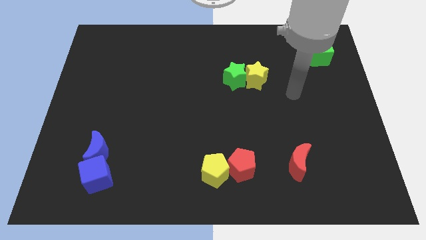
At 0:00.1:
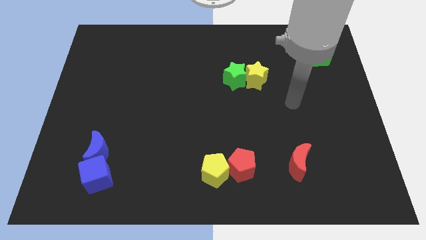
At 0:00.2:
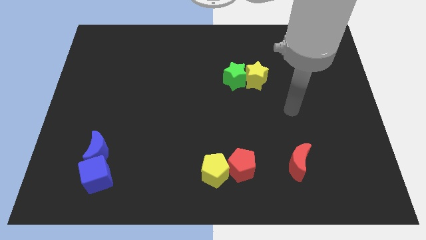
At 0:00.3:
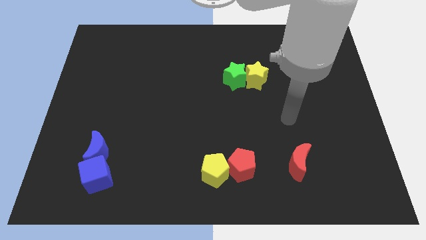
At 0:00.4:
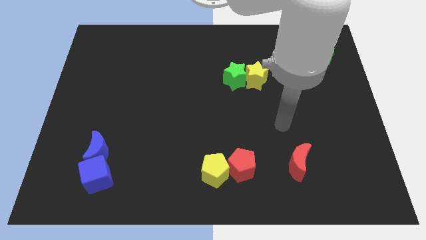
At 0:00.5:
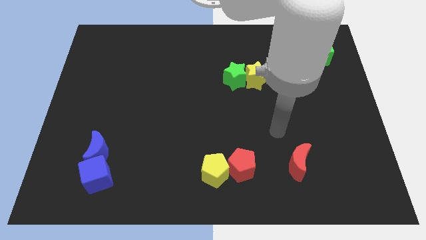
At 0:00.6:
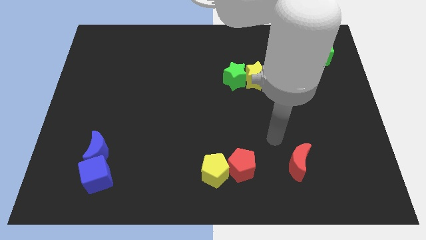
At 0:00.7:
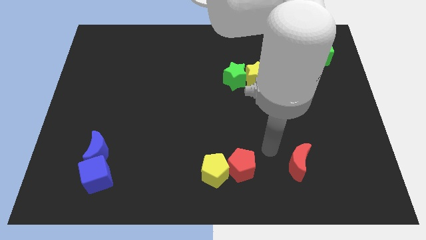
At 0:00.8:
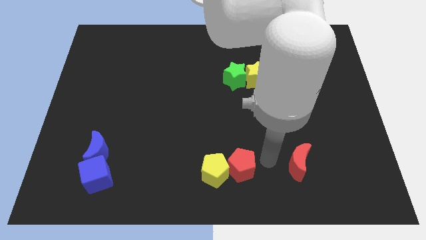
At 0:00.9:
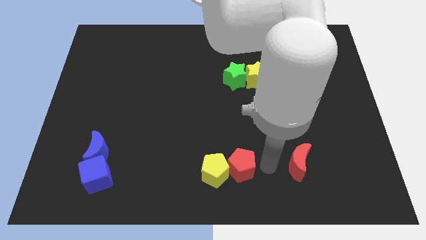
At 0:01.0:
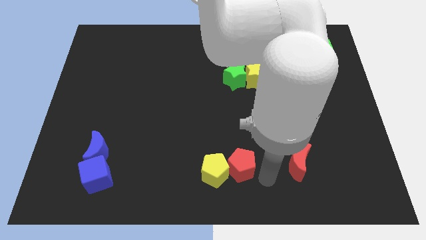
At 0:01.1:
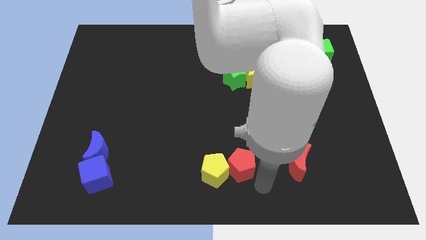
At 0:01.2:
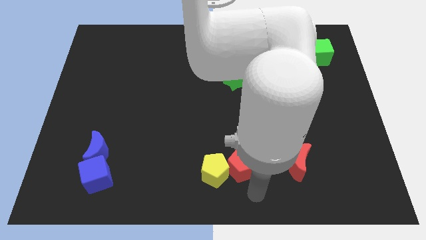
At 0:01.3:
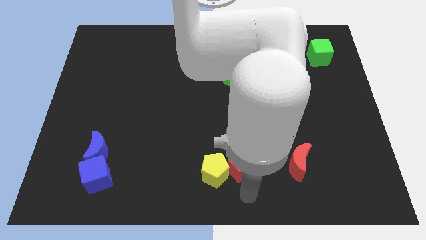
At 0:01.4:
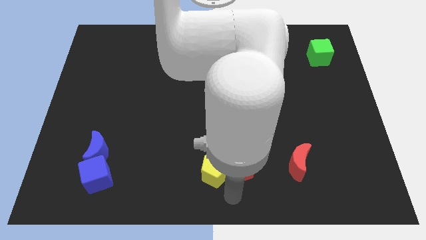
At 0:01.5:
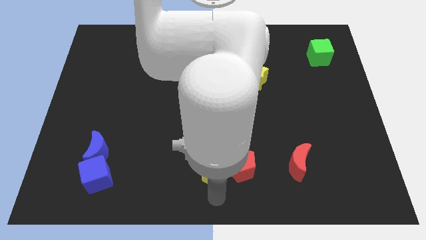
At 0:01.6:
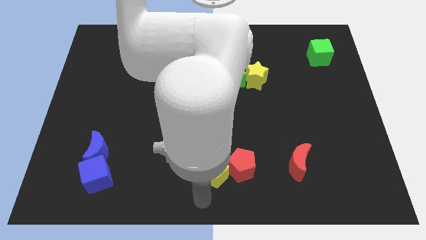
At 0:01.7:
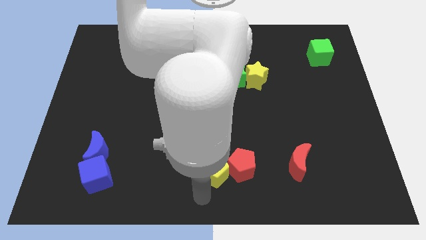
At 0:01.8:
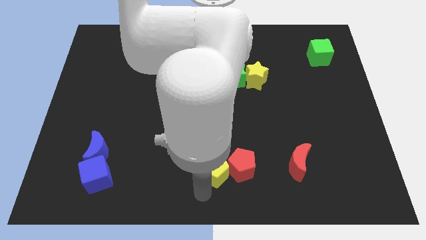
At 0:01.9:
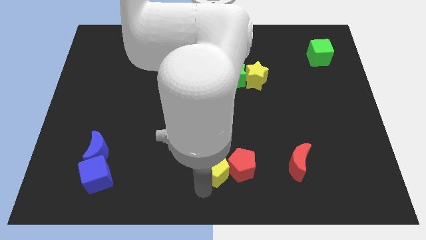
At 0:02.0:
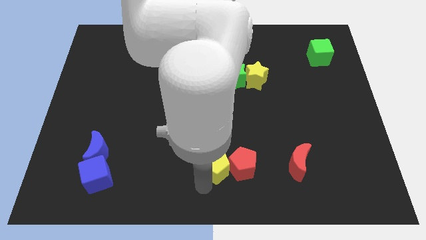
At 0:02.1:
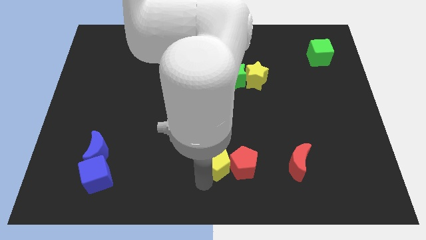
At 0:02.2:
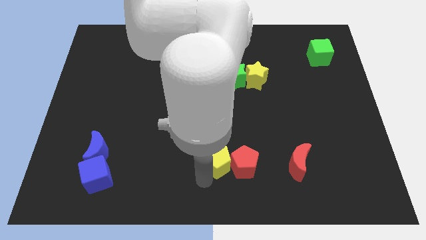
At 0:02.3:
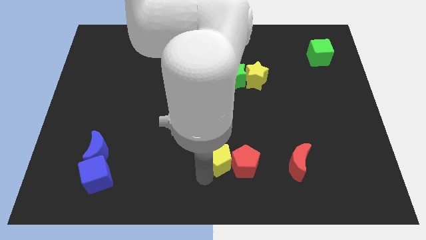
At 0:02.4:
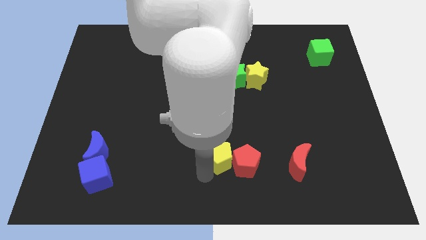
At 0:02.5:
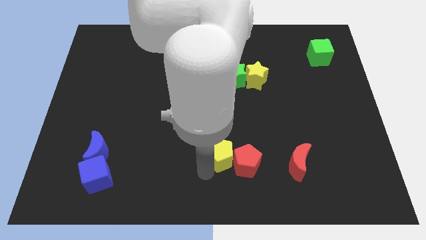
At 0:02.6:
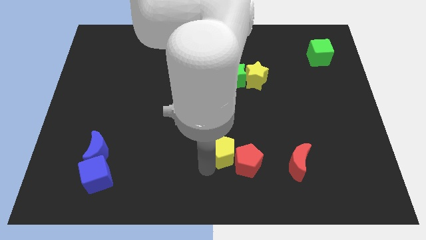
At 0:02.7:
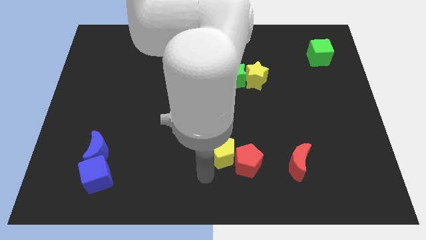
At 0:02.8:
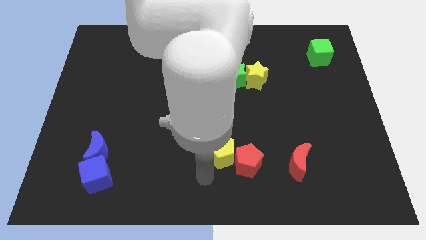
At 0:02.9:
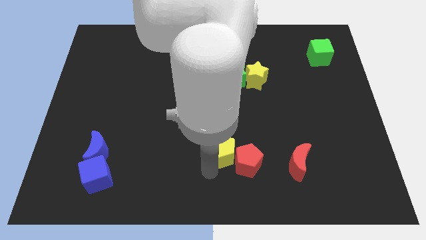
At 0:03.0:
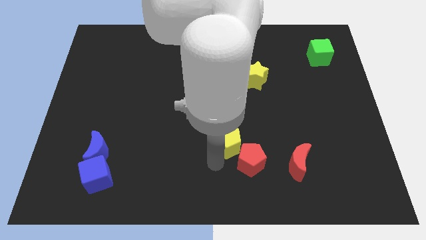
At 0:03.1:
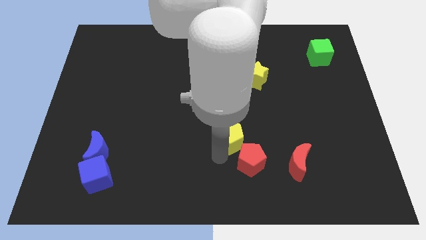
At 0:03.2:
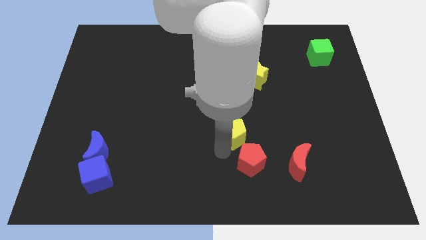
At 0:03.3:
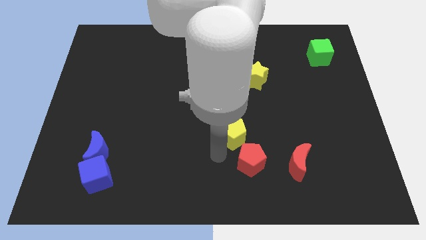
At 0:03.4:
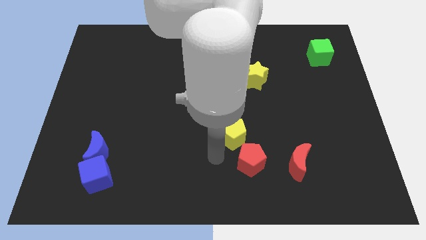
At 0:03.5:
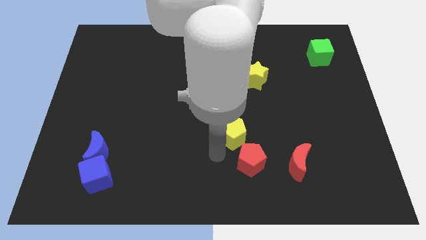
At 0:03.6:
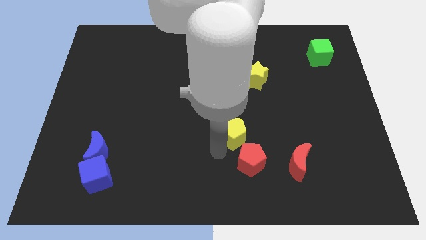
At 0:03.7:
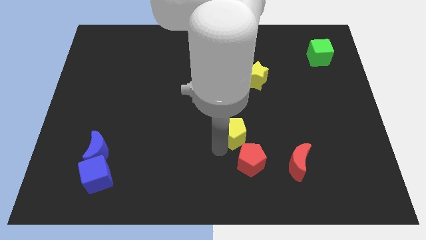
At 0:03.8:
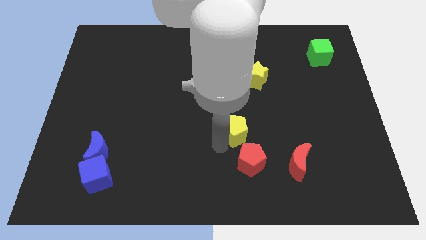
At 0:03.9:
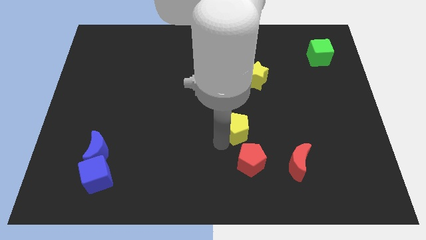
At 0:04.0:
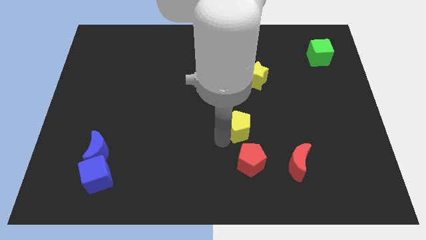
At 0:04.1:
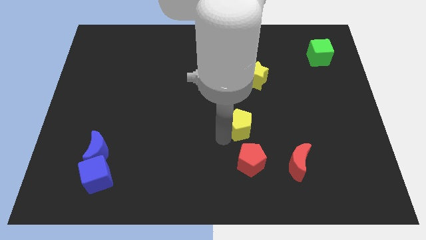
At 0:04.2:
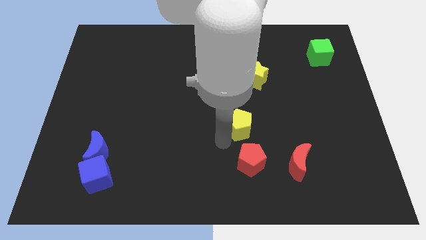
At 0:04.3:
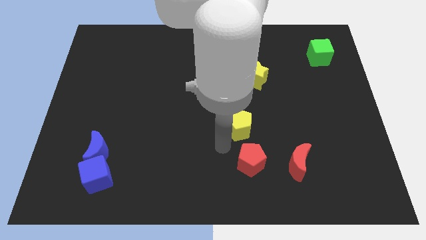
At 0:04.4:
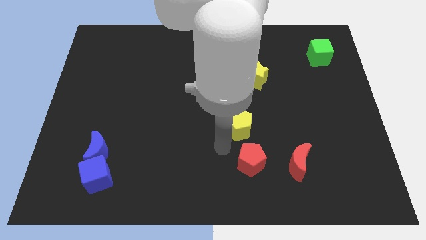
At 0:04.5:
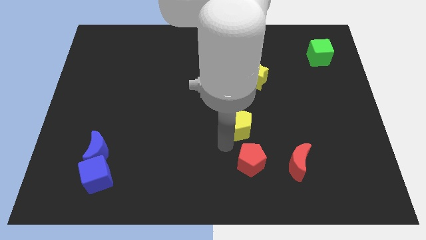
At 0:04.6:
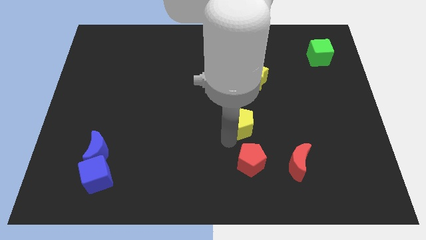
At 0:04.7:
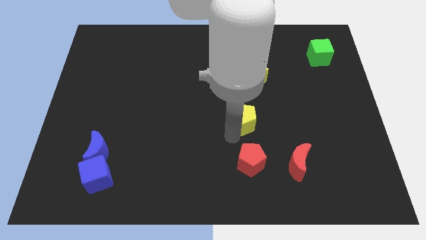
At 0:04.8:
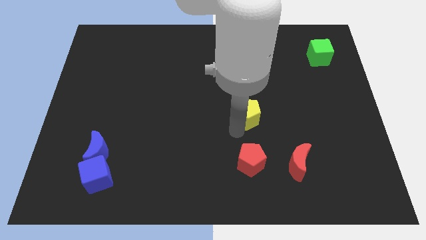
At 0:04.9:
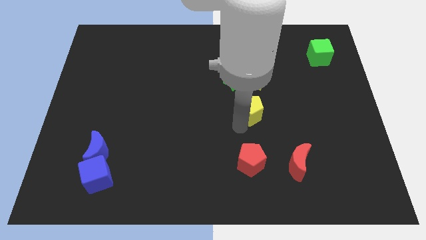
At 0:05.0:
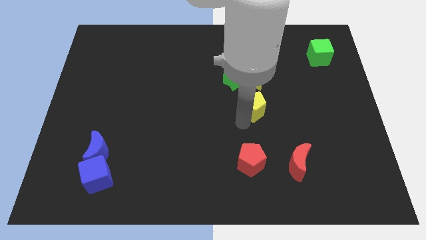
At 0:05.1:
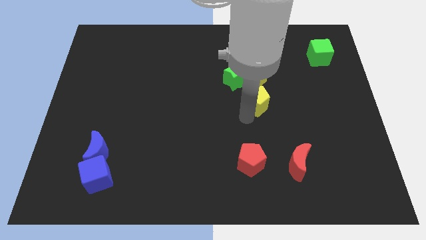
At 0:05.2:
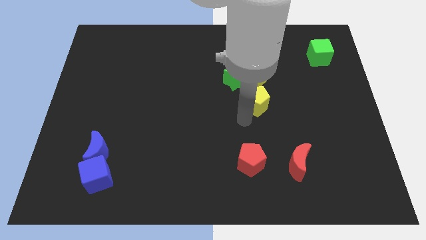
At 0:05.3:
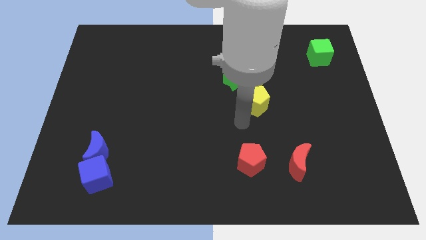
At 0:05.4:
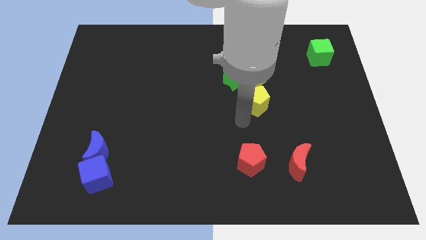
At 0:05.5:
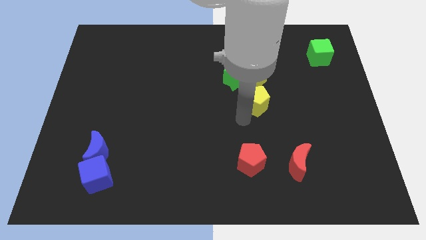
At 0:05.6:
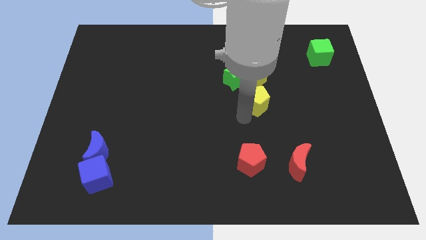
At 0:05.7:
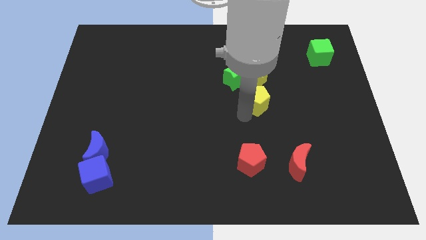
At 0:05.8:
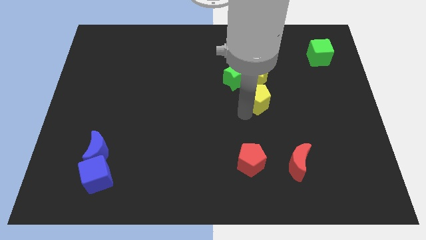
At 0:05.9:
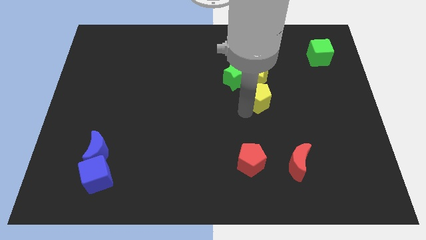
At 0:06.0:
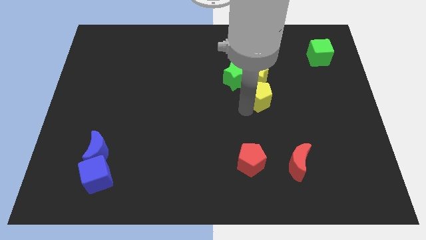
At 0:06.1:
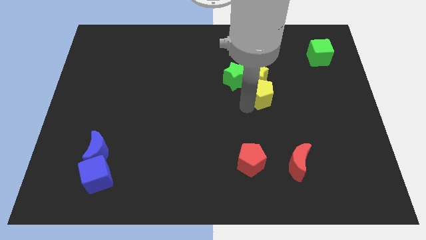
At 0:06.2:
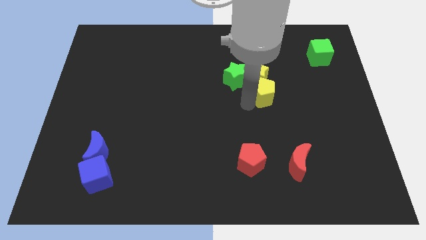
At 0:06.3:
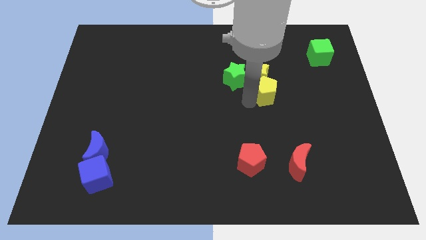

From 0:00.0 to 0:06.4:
move the yellow pentagon just right of the green star

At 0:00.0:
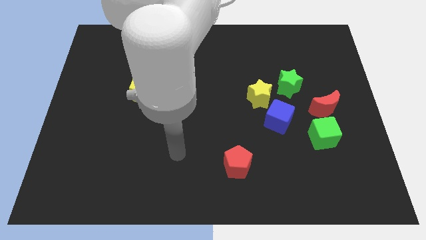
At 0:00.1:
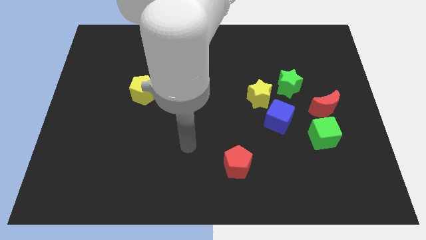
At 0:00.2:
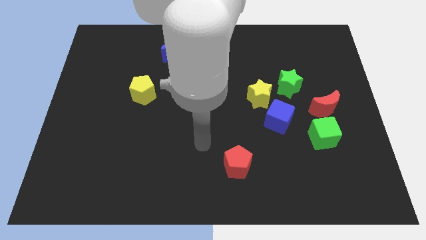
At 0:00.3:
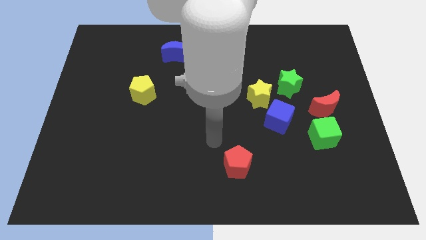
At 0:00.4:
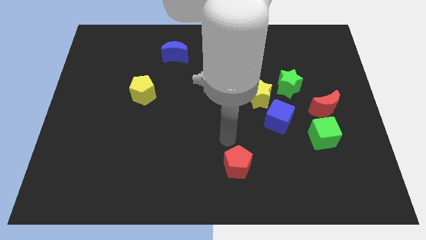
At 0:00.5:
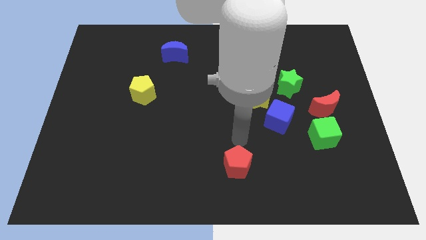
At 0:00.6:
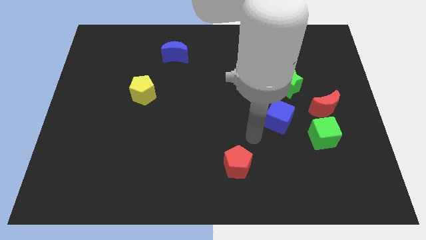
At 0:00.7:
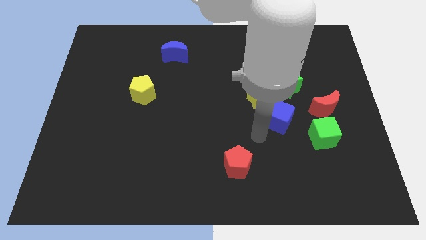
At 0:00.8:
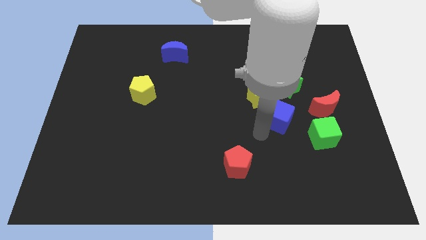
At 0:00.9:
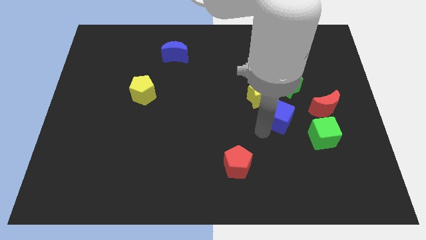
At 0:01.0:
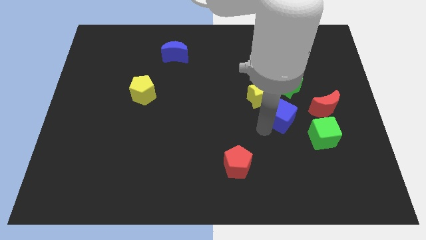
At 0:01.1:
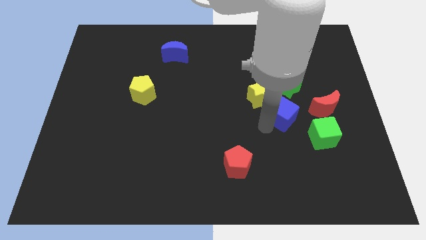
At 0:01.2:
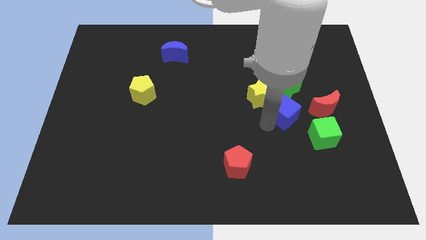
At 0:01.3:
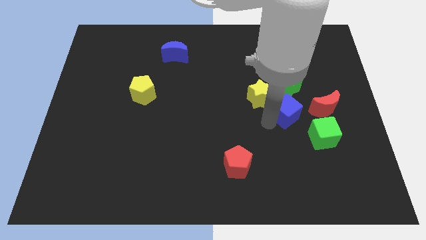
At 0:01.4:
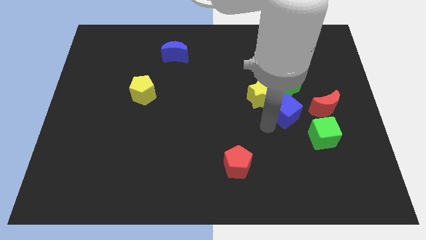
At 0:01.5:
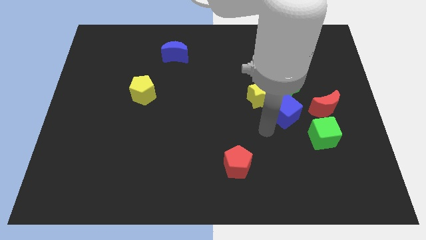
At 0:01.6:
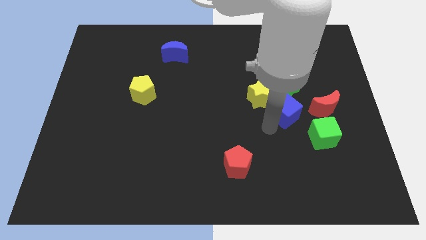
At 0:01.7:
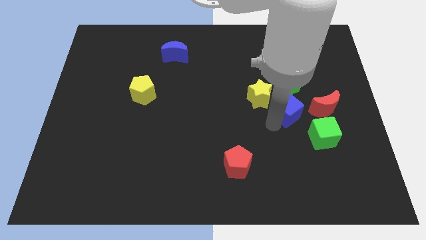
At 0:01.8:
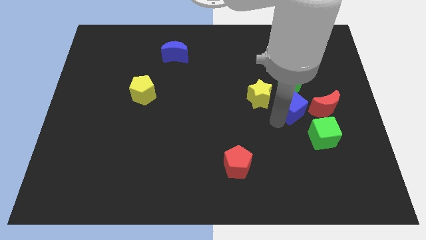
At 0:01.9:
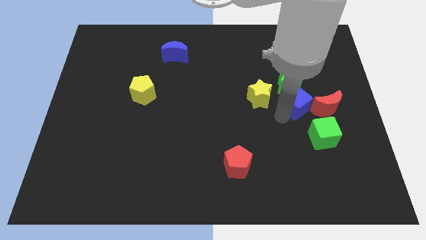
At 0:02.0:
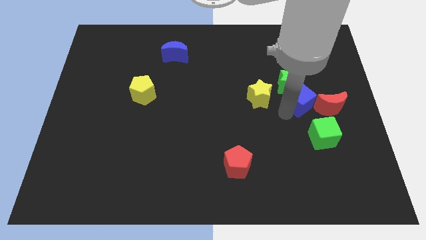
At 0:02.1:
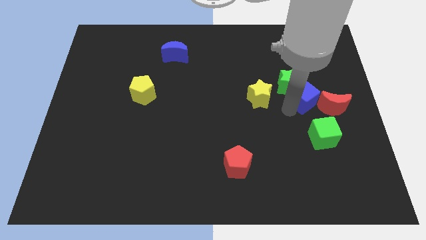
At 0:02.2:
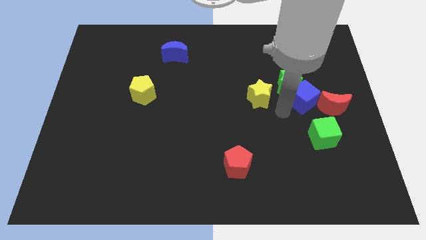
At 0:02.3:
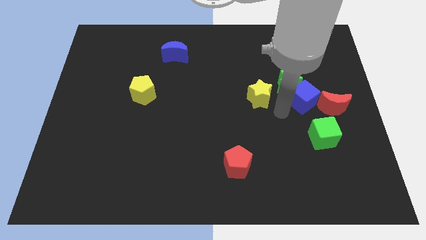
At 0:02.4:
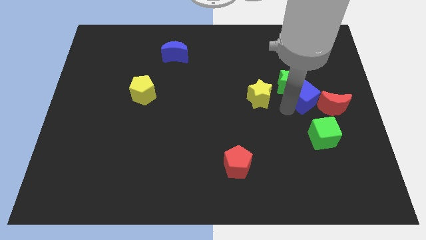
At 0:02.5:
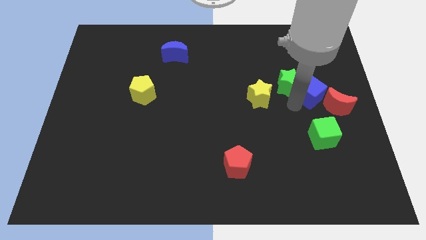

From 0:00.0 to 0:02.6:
move the blue cube to the right of the green star
